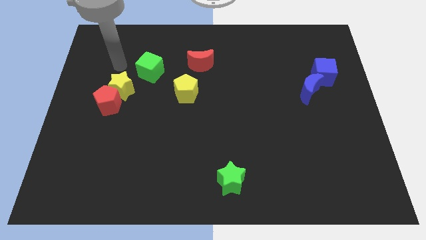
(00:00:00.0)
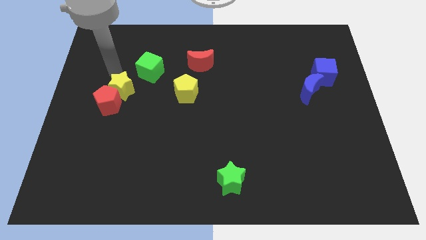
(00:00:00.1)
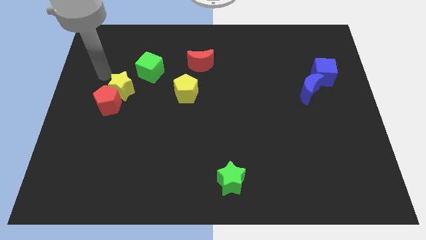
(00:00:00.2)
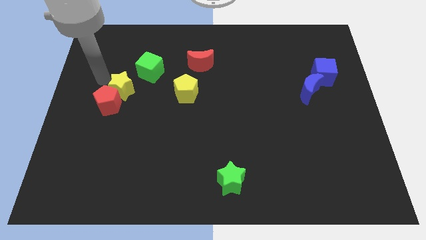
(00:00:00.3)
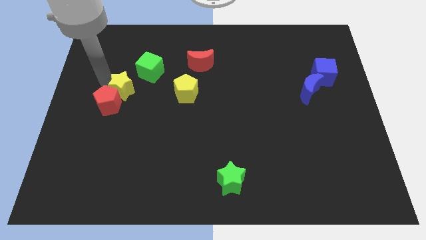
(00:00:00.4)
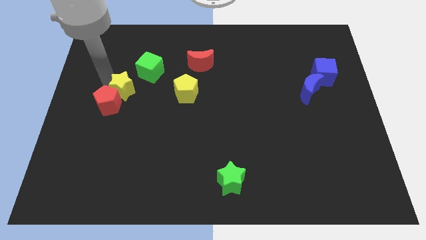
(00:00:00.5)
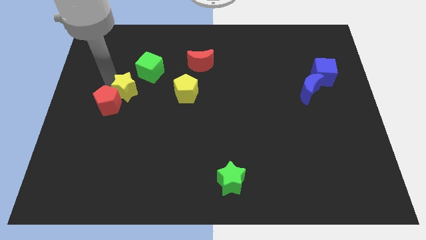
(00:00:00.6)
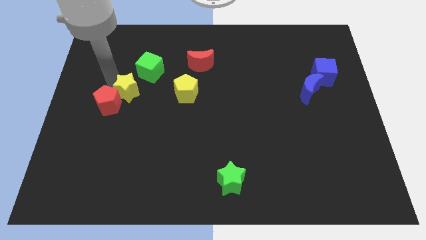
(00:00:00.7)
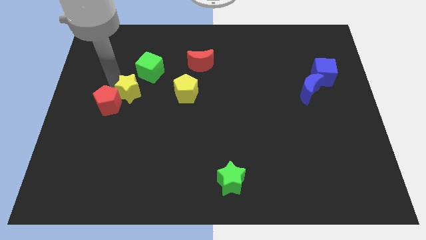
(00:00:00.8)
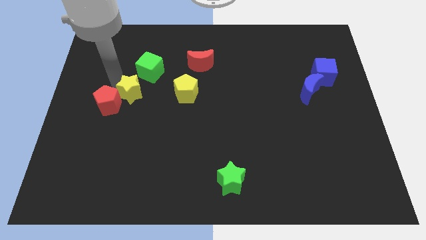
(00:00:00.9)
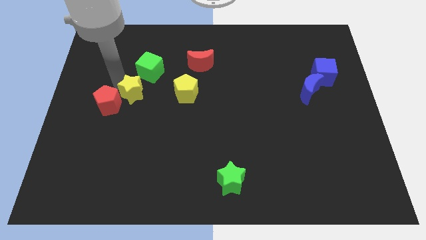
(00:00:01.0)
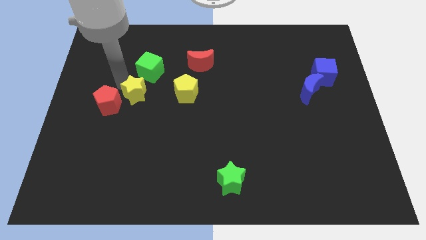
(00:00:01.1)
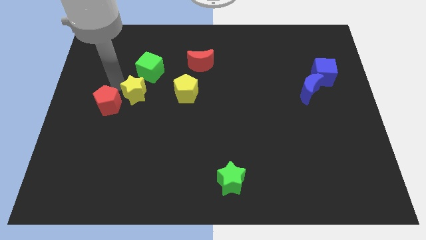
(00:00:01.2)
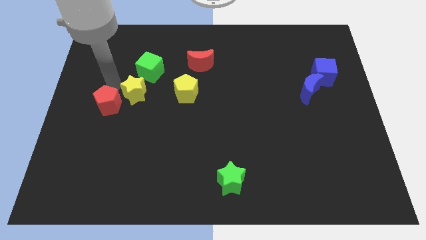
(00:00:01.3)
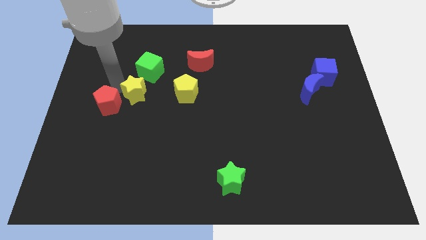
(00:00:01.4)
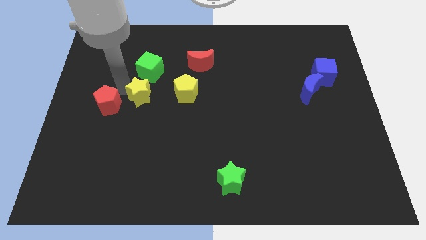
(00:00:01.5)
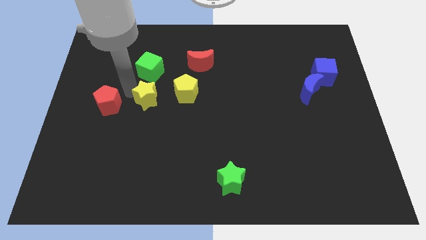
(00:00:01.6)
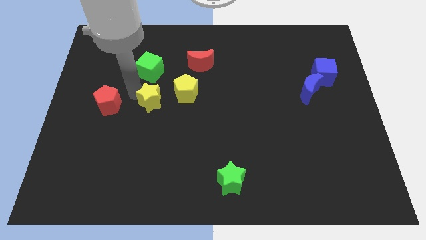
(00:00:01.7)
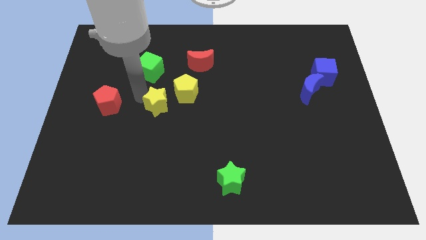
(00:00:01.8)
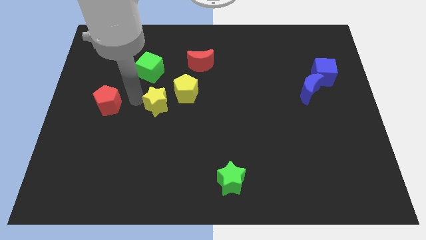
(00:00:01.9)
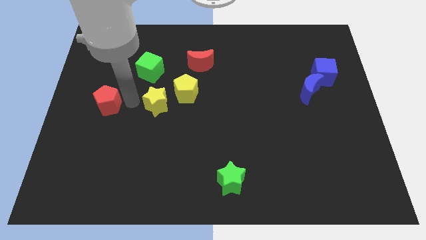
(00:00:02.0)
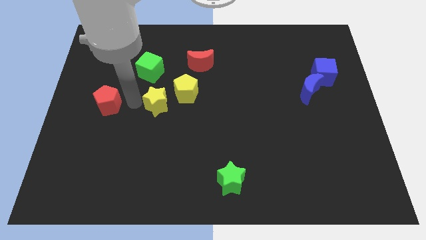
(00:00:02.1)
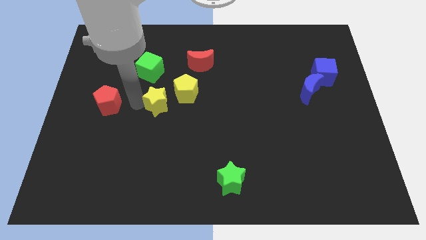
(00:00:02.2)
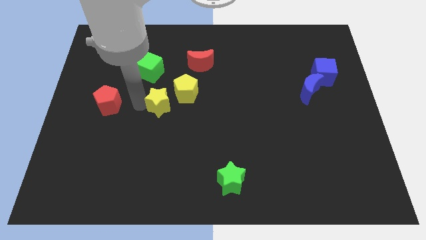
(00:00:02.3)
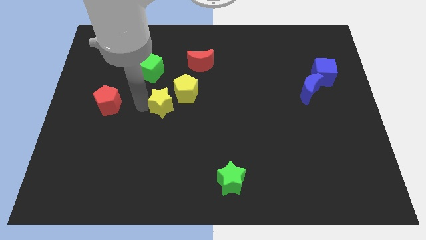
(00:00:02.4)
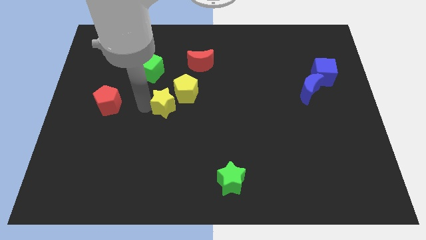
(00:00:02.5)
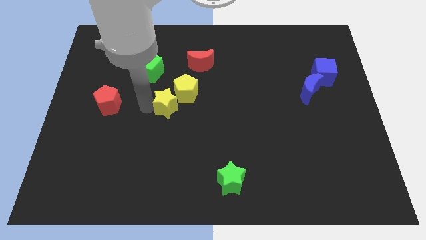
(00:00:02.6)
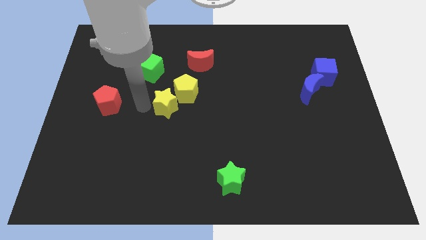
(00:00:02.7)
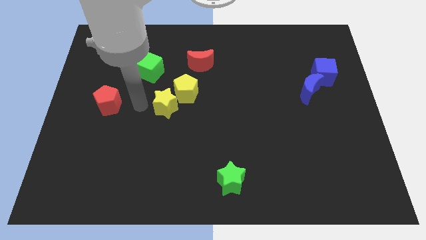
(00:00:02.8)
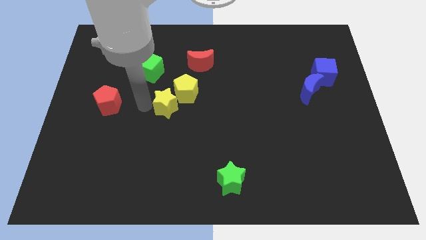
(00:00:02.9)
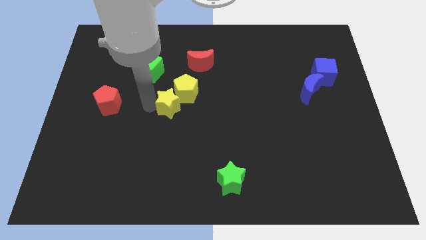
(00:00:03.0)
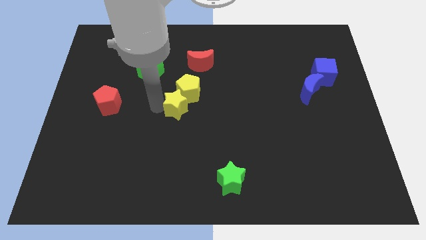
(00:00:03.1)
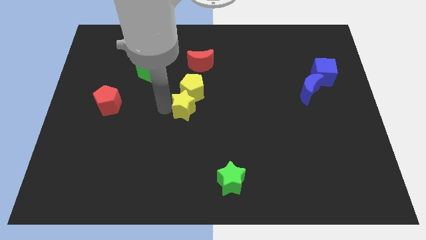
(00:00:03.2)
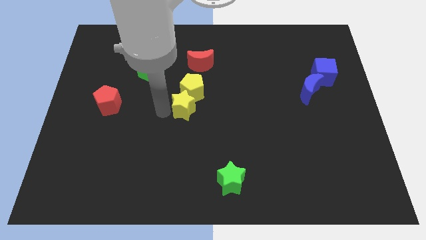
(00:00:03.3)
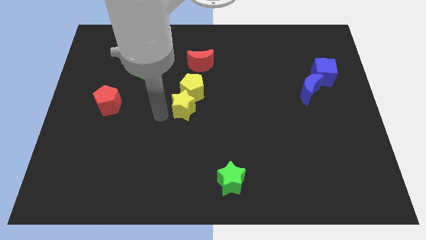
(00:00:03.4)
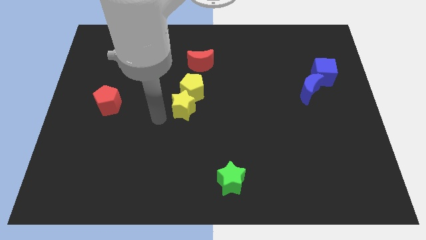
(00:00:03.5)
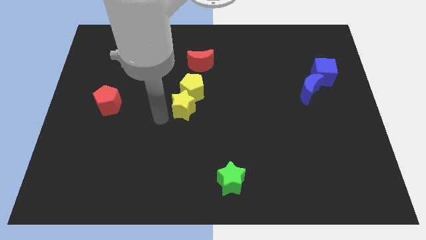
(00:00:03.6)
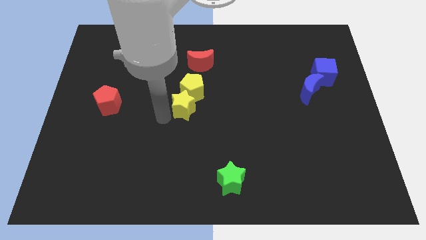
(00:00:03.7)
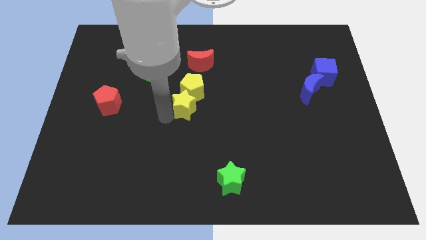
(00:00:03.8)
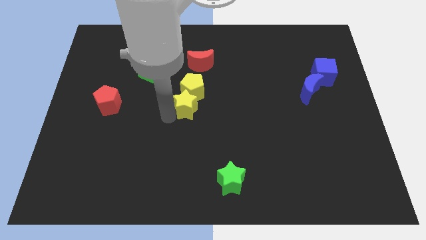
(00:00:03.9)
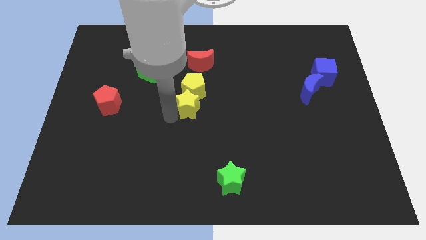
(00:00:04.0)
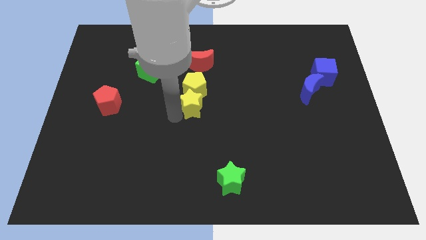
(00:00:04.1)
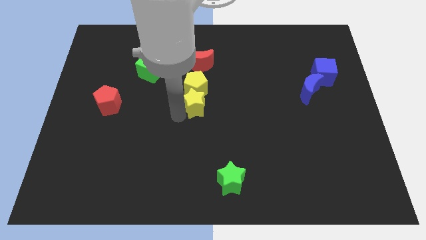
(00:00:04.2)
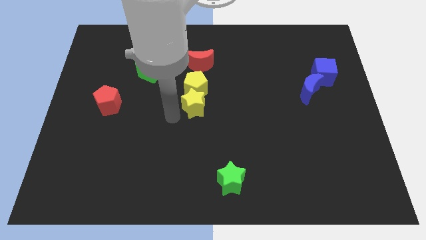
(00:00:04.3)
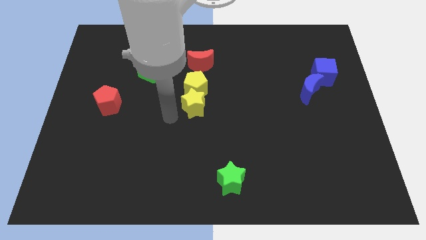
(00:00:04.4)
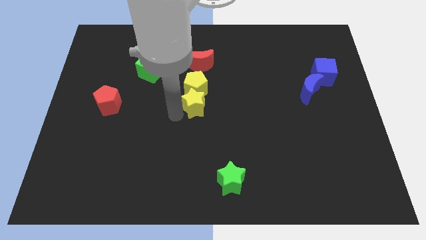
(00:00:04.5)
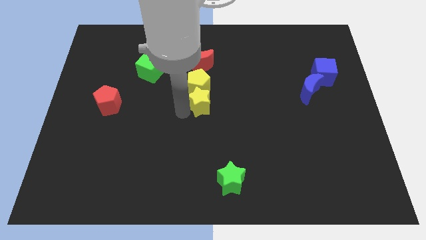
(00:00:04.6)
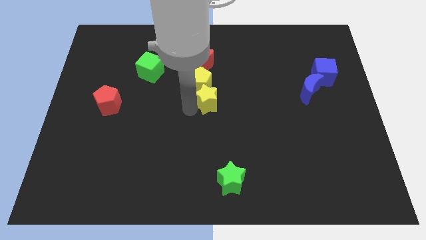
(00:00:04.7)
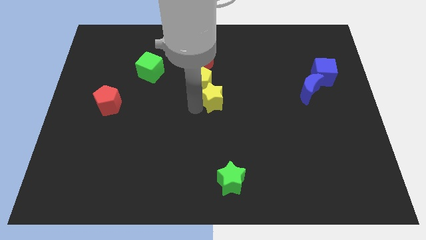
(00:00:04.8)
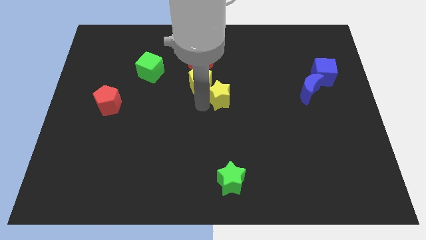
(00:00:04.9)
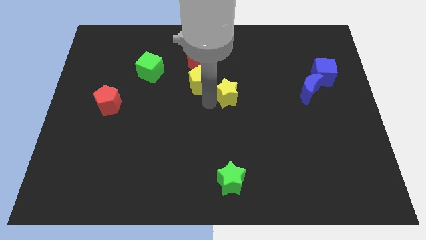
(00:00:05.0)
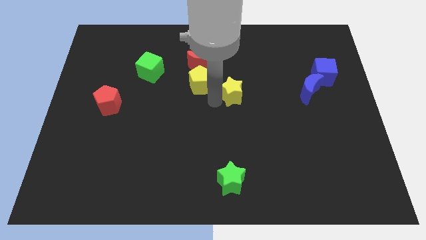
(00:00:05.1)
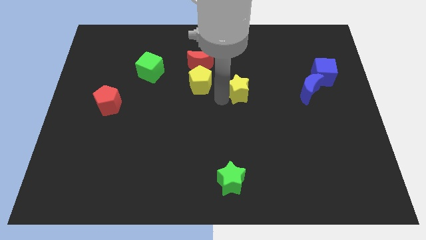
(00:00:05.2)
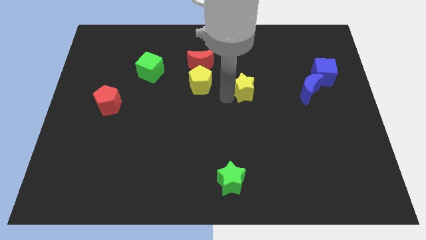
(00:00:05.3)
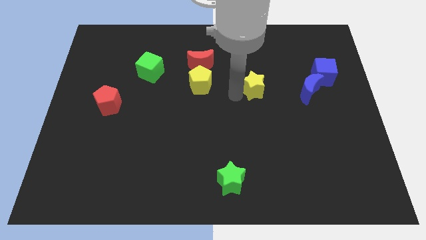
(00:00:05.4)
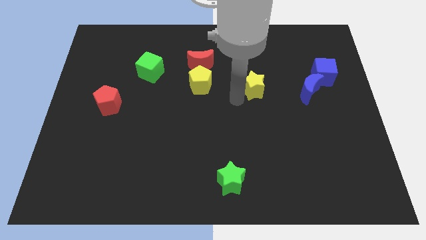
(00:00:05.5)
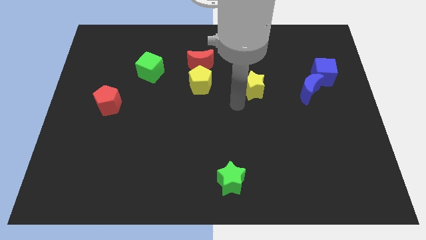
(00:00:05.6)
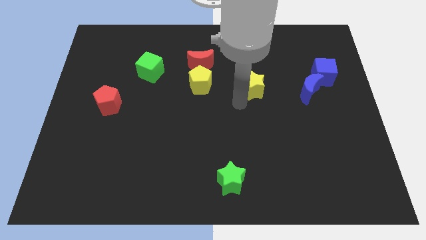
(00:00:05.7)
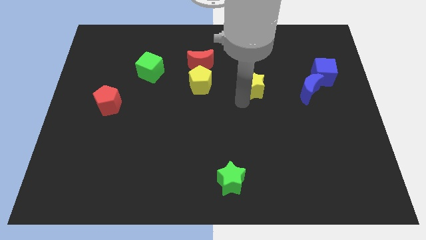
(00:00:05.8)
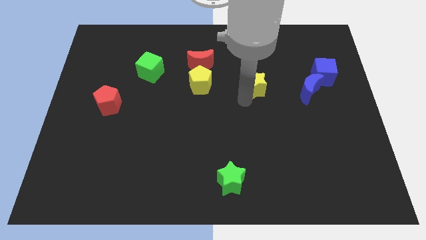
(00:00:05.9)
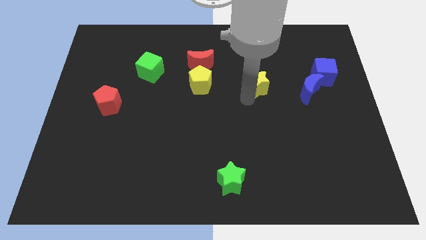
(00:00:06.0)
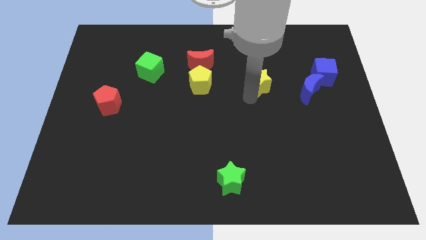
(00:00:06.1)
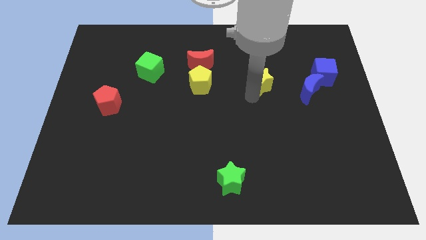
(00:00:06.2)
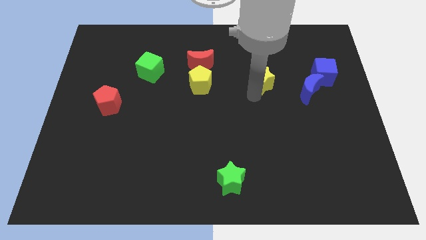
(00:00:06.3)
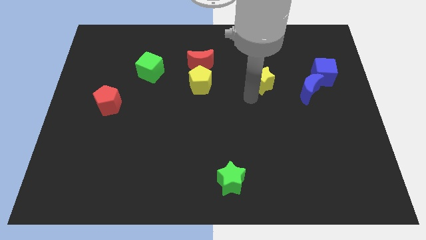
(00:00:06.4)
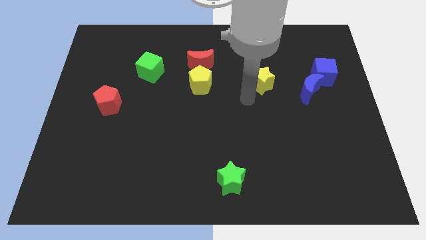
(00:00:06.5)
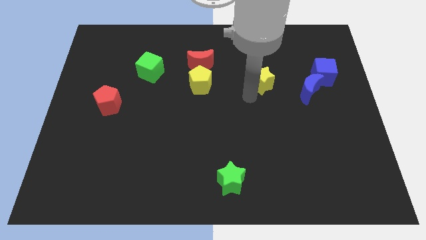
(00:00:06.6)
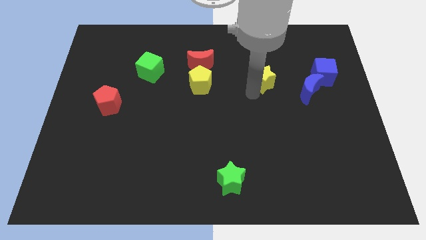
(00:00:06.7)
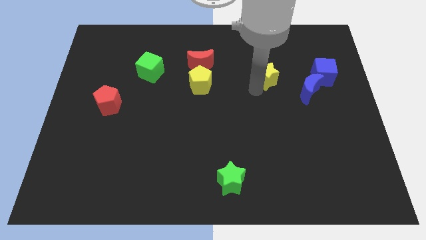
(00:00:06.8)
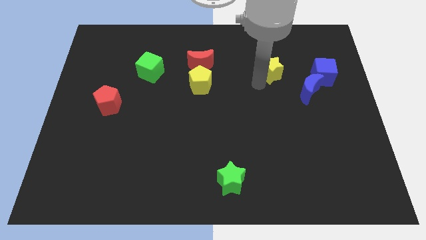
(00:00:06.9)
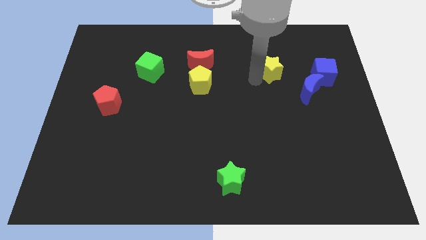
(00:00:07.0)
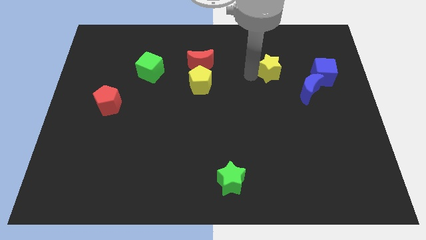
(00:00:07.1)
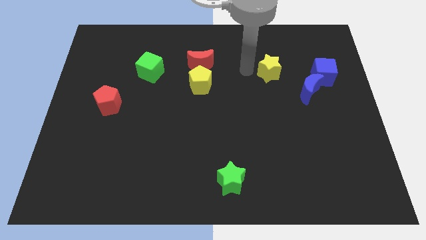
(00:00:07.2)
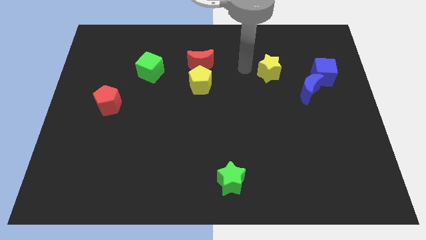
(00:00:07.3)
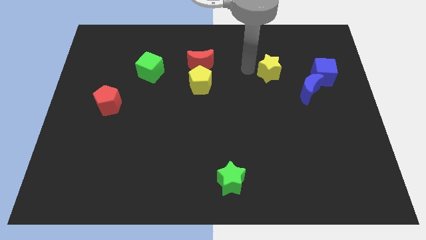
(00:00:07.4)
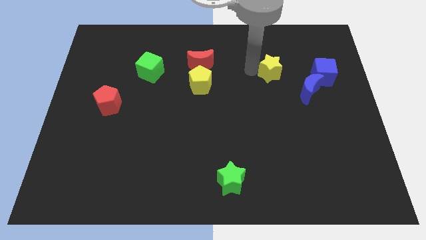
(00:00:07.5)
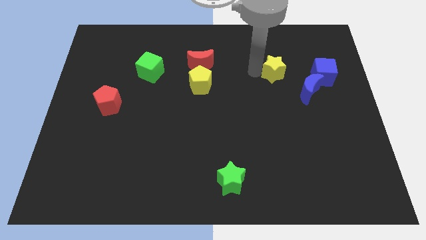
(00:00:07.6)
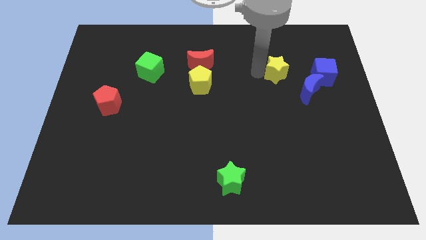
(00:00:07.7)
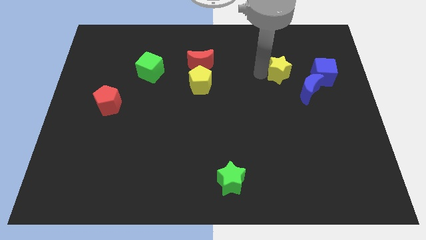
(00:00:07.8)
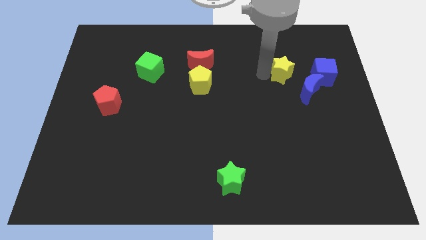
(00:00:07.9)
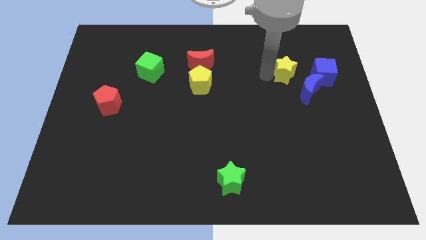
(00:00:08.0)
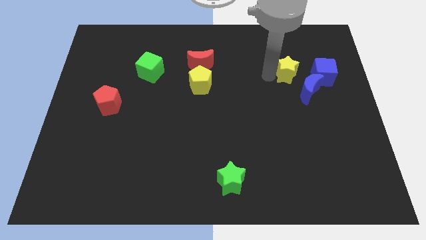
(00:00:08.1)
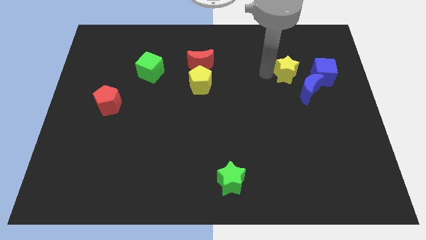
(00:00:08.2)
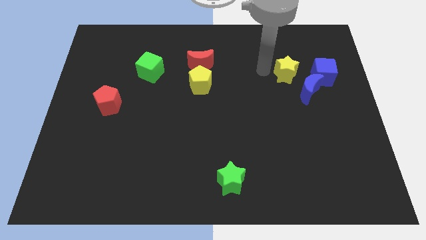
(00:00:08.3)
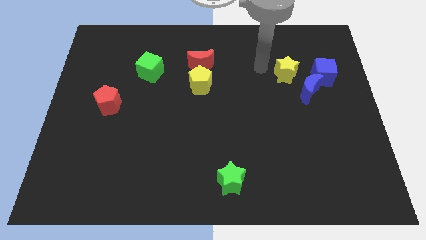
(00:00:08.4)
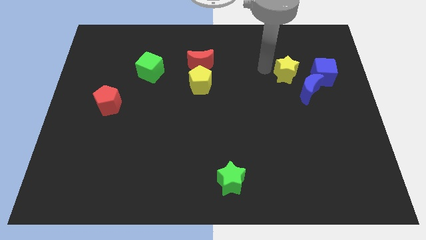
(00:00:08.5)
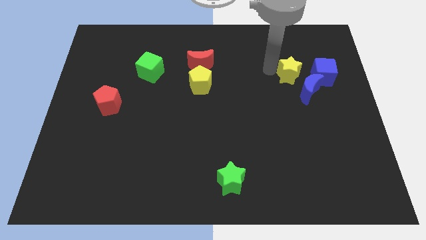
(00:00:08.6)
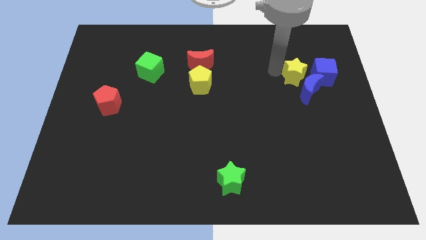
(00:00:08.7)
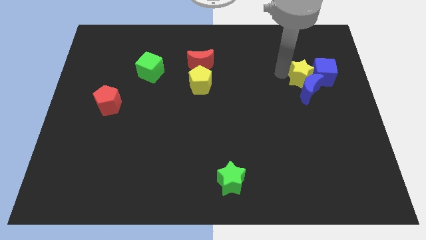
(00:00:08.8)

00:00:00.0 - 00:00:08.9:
put the yellow star next to the blue cube
